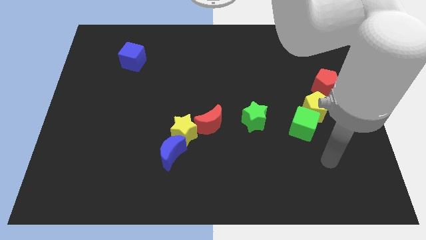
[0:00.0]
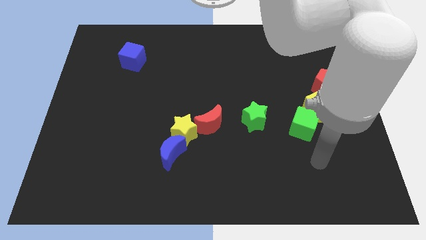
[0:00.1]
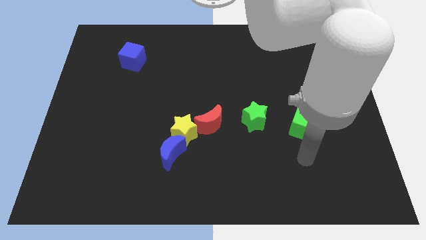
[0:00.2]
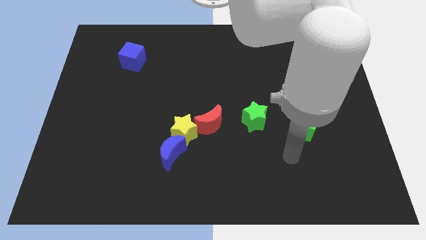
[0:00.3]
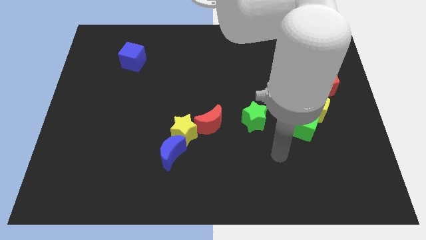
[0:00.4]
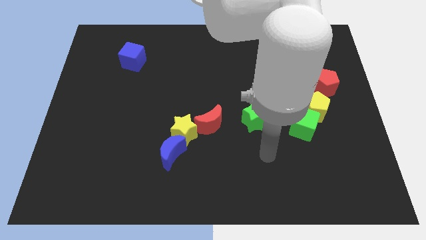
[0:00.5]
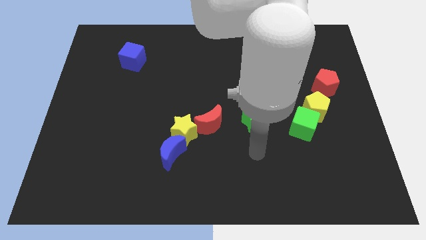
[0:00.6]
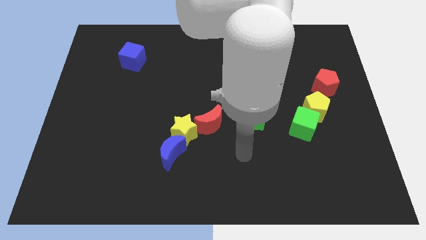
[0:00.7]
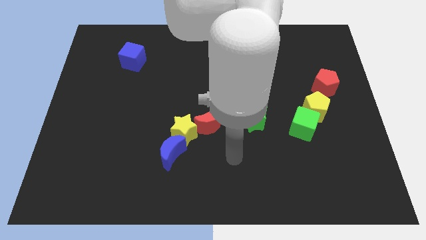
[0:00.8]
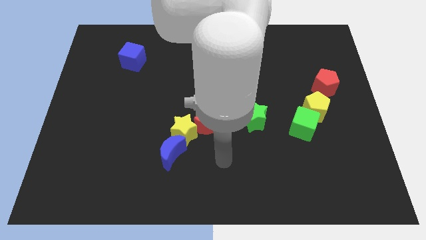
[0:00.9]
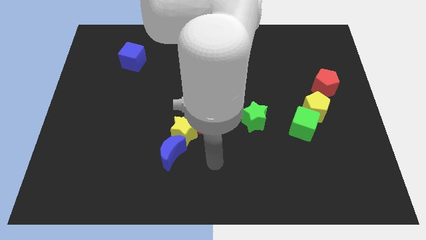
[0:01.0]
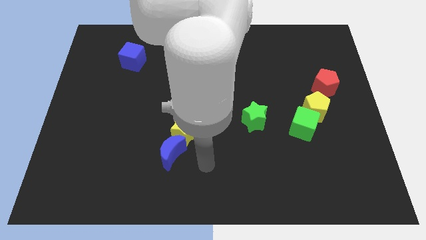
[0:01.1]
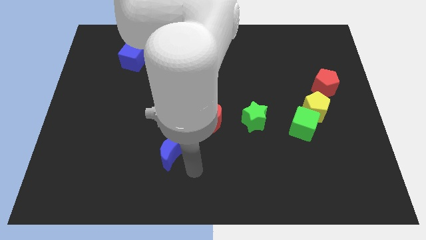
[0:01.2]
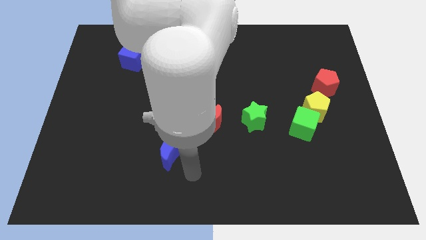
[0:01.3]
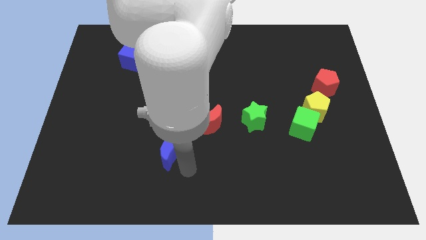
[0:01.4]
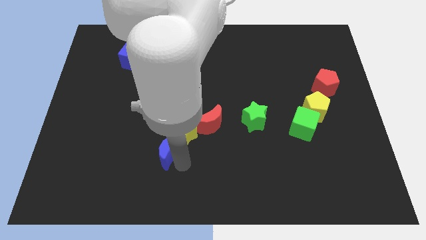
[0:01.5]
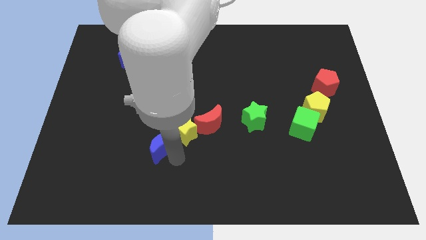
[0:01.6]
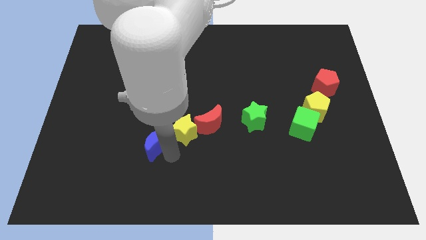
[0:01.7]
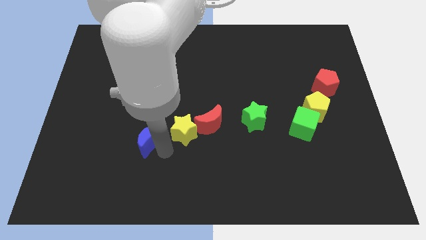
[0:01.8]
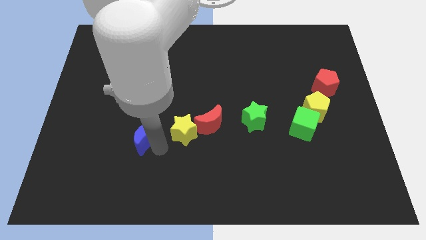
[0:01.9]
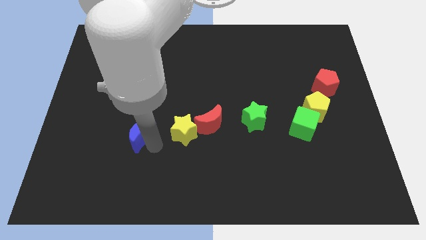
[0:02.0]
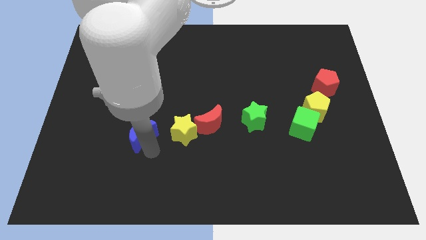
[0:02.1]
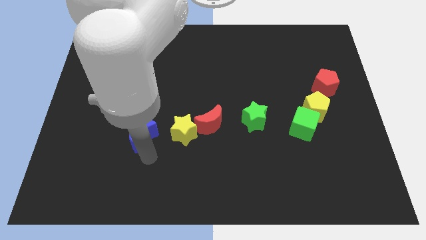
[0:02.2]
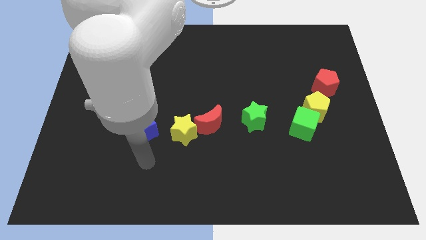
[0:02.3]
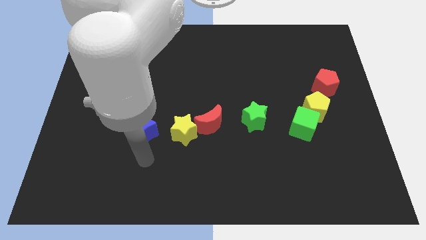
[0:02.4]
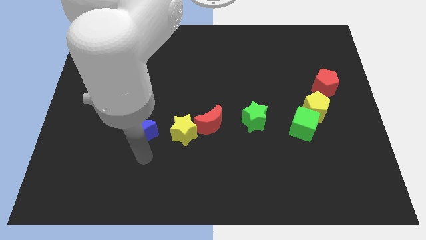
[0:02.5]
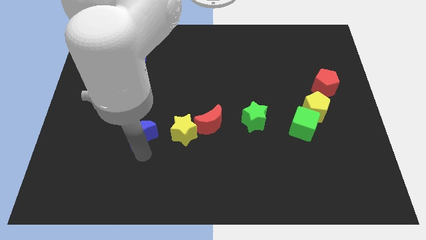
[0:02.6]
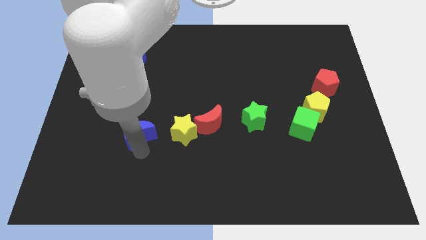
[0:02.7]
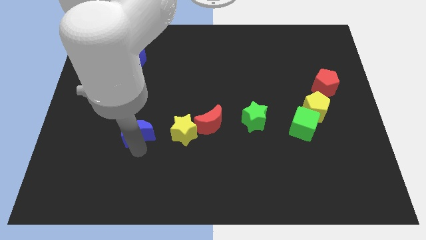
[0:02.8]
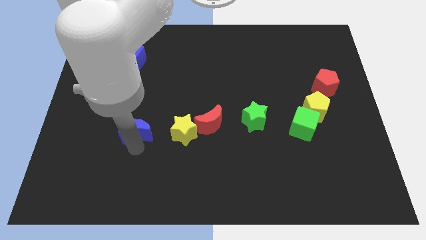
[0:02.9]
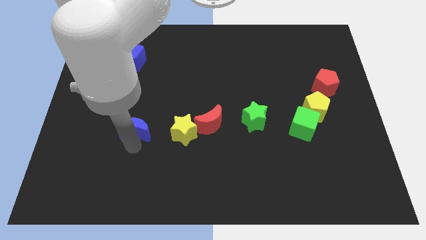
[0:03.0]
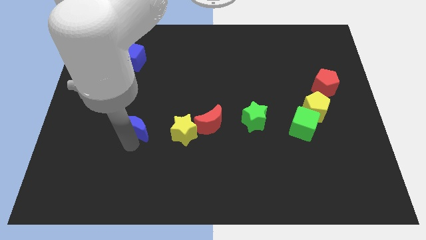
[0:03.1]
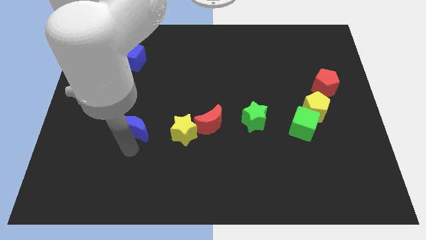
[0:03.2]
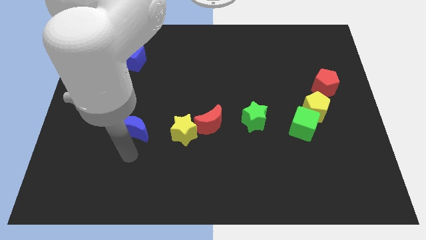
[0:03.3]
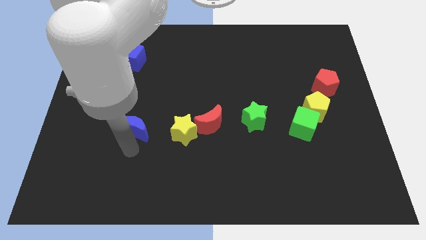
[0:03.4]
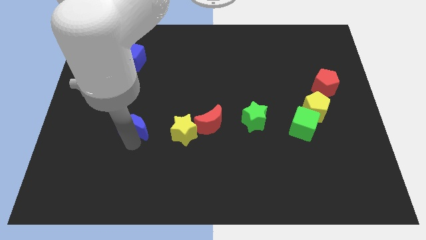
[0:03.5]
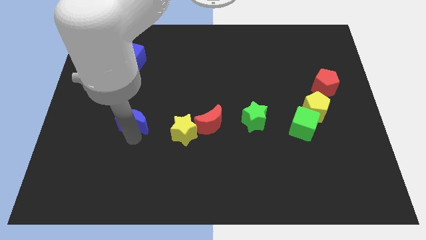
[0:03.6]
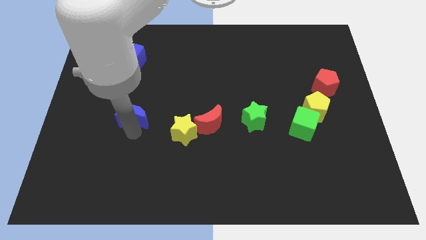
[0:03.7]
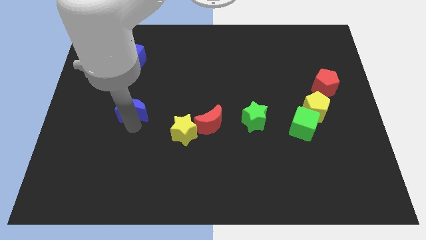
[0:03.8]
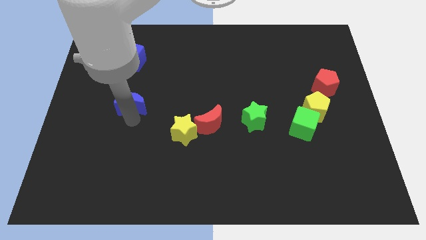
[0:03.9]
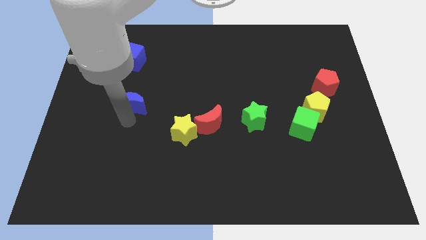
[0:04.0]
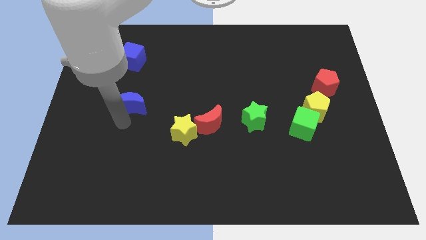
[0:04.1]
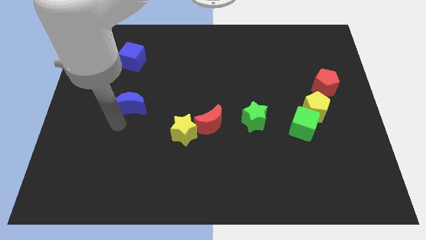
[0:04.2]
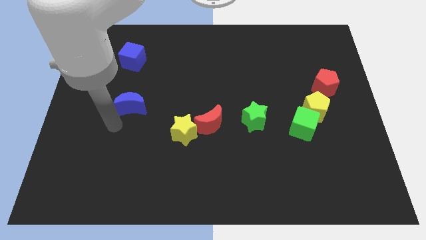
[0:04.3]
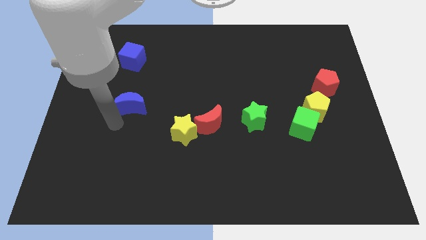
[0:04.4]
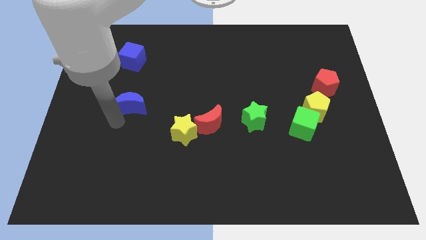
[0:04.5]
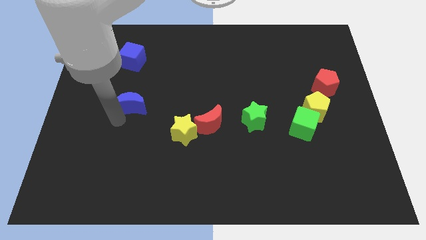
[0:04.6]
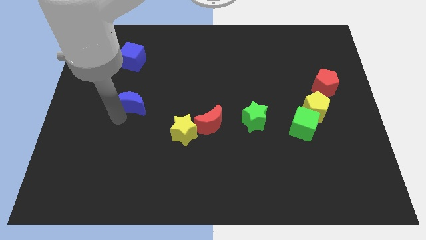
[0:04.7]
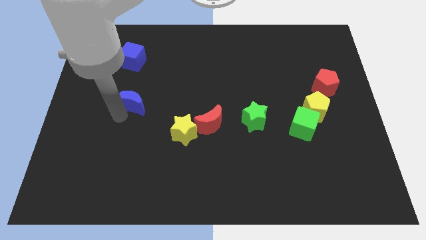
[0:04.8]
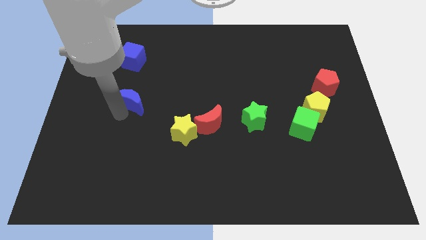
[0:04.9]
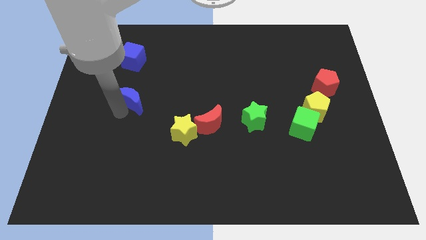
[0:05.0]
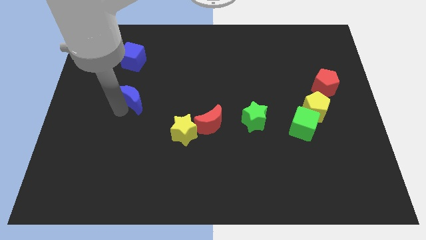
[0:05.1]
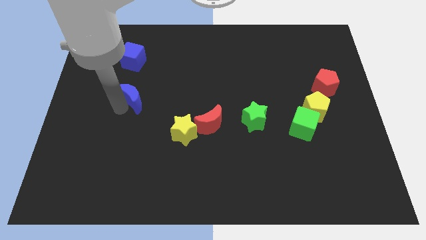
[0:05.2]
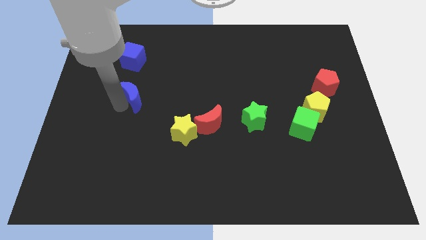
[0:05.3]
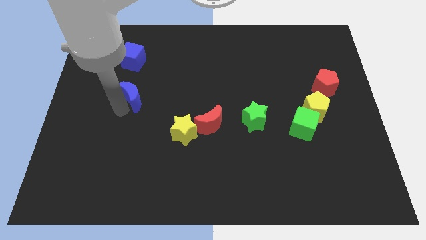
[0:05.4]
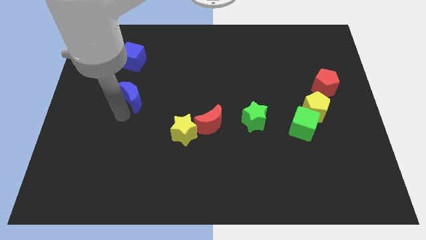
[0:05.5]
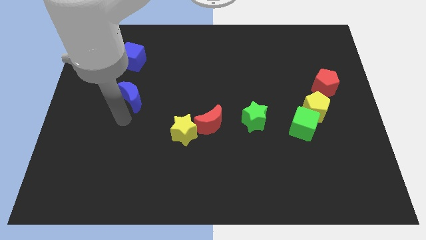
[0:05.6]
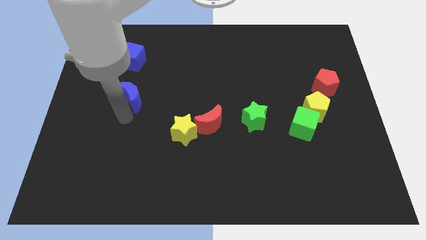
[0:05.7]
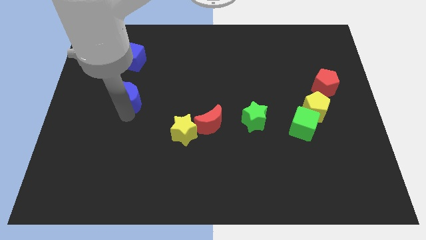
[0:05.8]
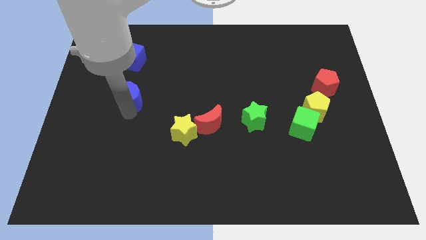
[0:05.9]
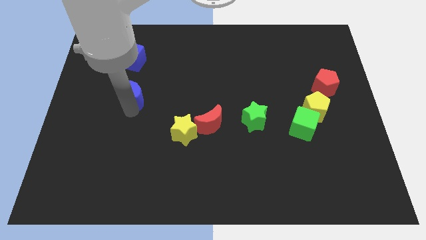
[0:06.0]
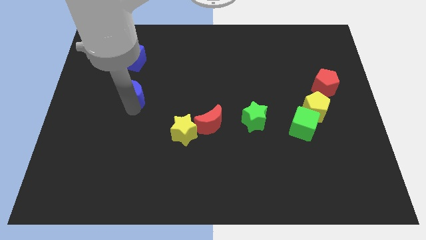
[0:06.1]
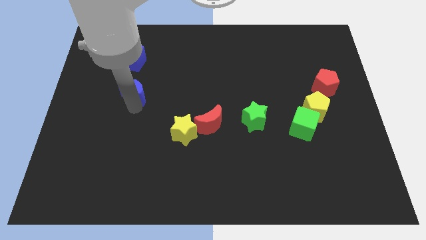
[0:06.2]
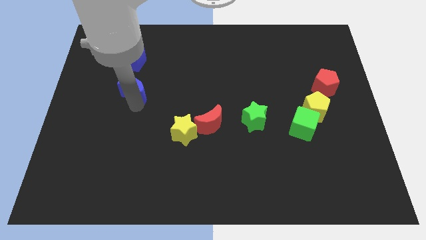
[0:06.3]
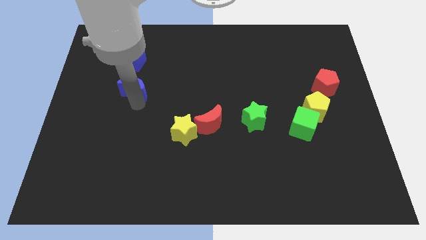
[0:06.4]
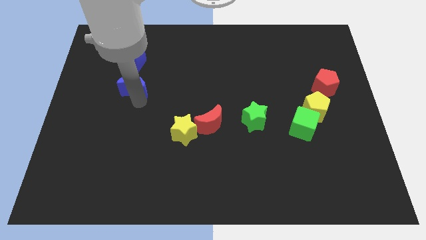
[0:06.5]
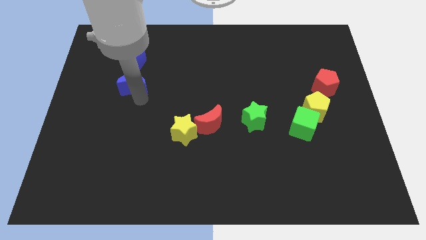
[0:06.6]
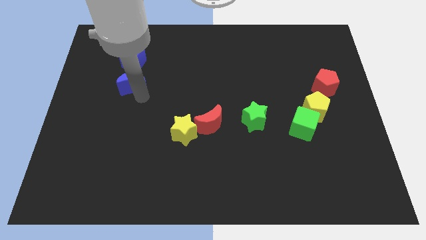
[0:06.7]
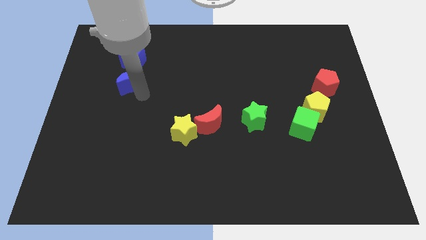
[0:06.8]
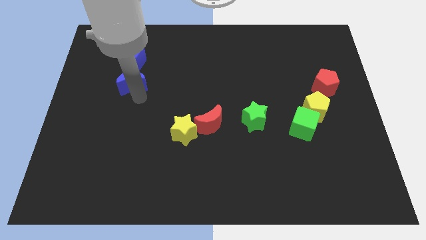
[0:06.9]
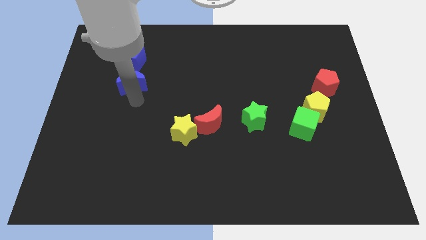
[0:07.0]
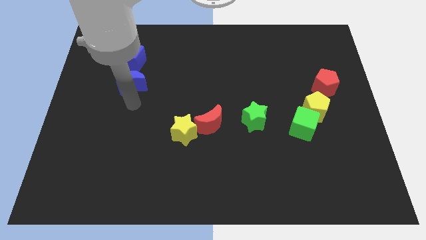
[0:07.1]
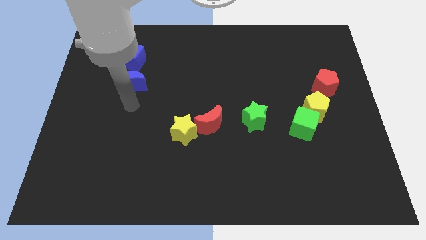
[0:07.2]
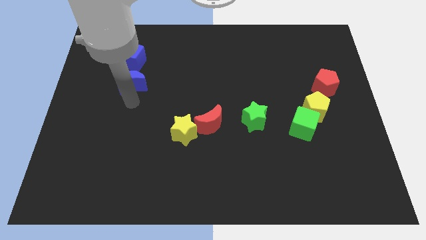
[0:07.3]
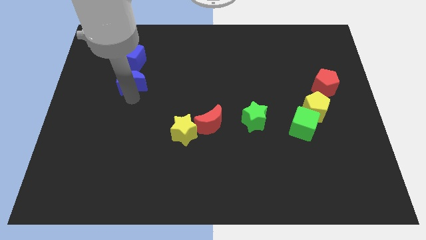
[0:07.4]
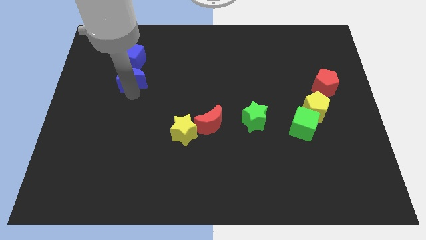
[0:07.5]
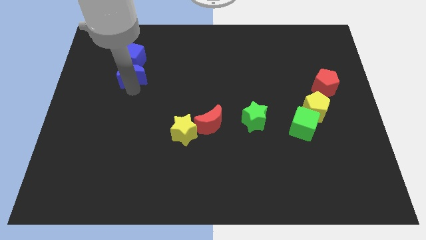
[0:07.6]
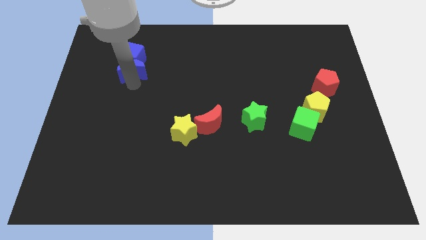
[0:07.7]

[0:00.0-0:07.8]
push the blue moon close to the blue cube
